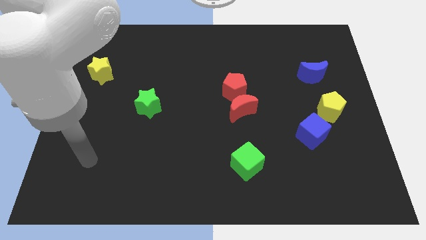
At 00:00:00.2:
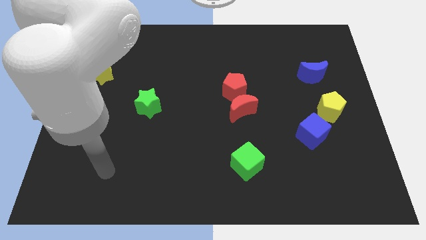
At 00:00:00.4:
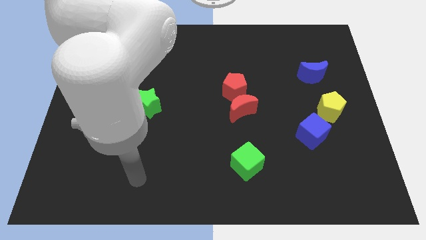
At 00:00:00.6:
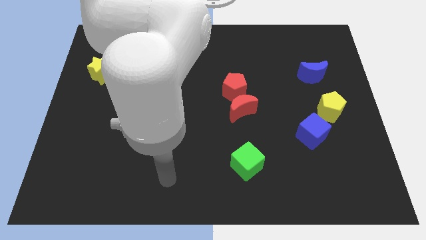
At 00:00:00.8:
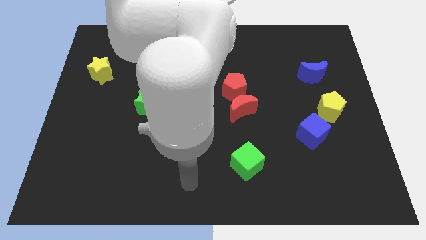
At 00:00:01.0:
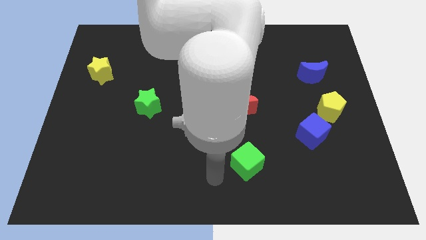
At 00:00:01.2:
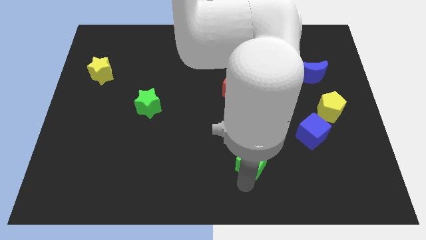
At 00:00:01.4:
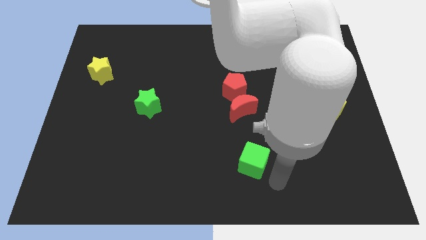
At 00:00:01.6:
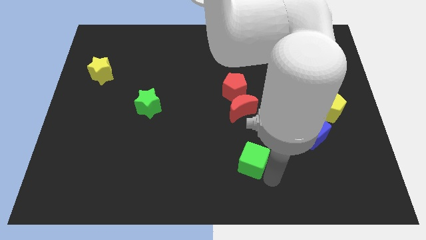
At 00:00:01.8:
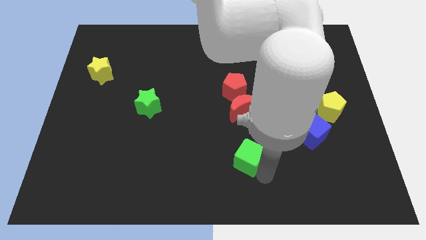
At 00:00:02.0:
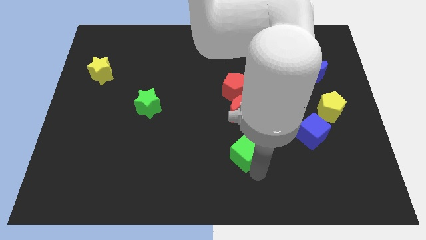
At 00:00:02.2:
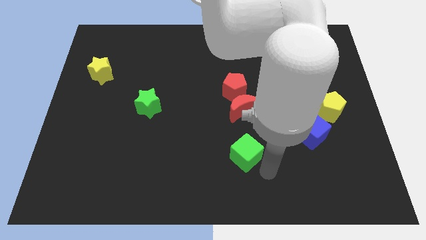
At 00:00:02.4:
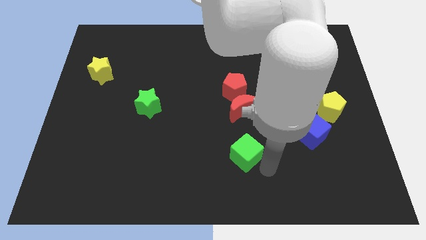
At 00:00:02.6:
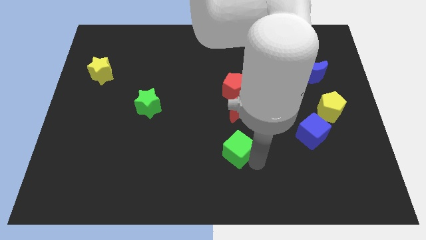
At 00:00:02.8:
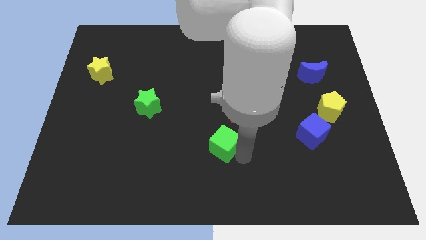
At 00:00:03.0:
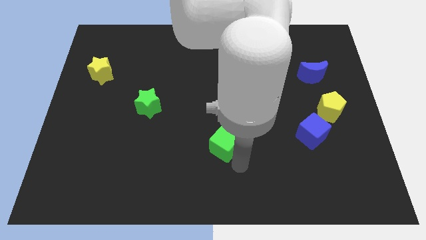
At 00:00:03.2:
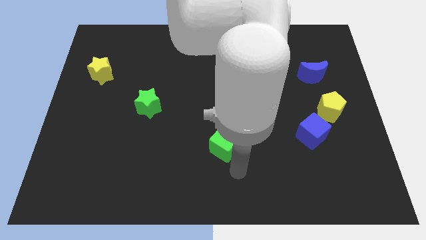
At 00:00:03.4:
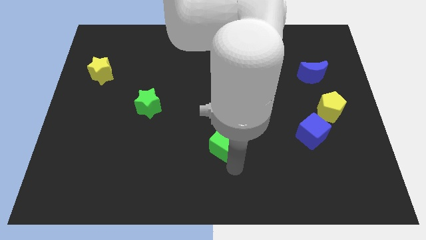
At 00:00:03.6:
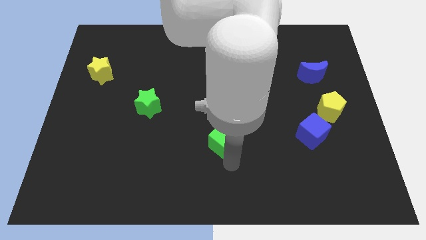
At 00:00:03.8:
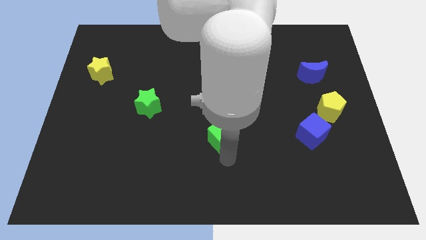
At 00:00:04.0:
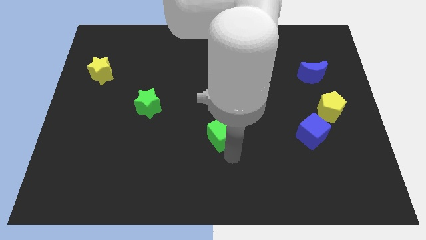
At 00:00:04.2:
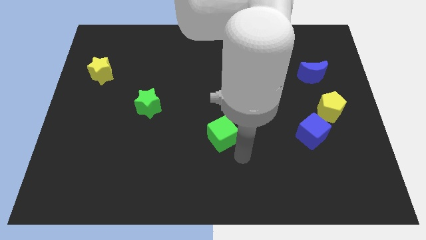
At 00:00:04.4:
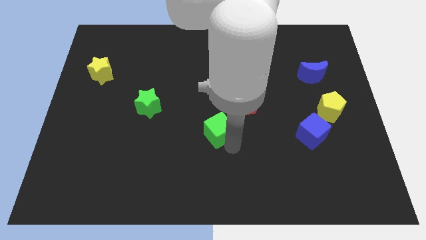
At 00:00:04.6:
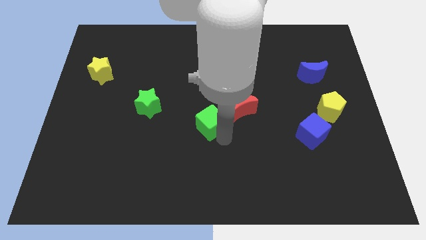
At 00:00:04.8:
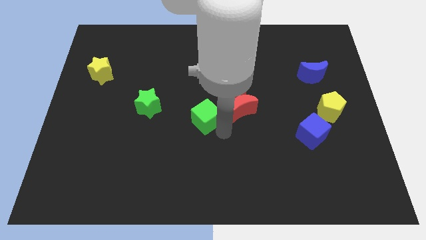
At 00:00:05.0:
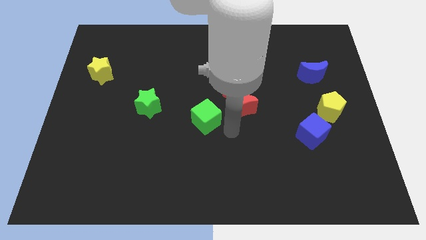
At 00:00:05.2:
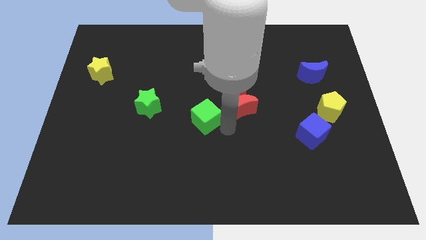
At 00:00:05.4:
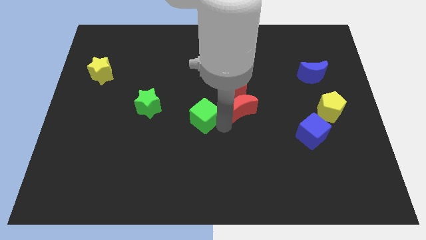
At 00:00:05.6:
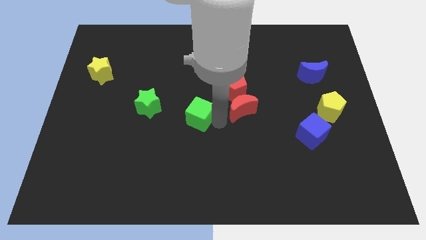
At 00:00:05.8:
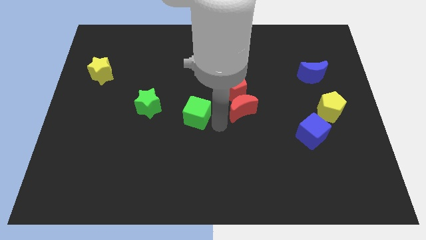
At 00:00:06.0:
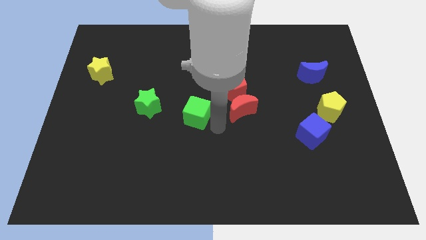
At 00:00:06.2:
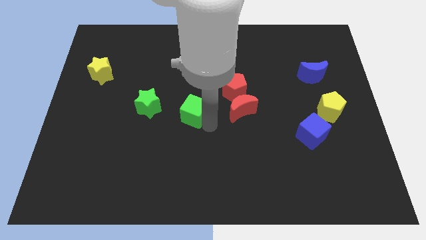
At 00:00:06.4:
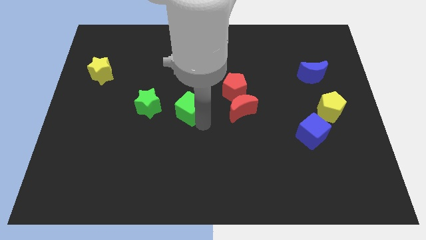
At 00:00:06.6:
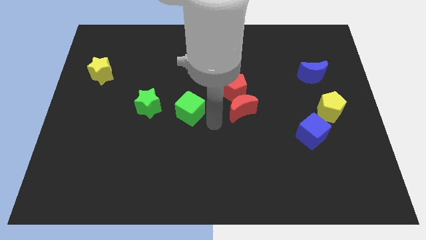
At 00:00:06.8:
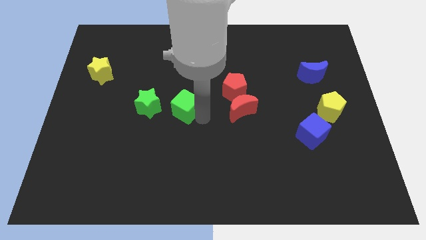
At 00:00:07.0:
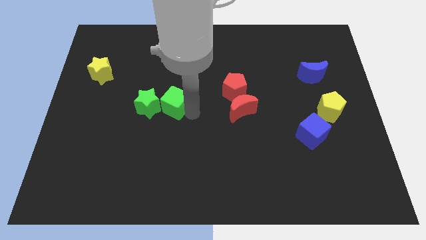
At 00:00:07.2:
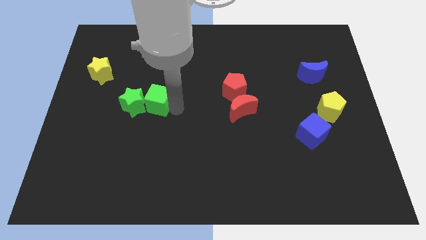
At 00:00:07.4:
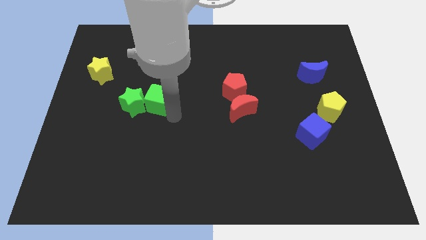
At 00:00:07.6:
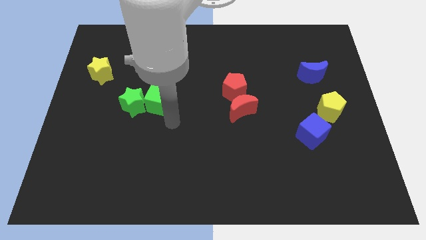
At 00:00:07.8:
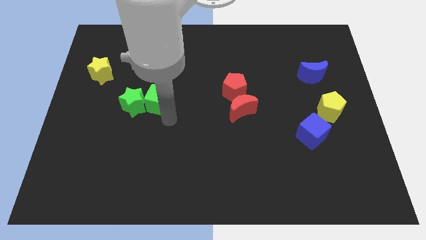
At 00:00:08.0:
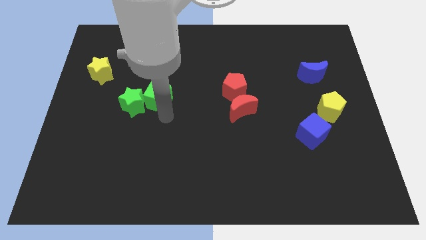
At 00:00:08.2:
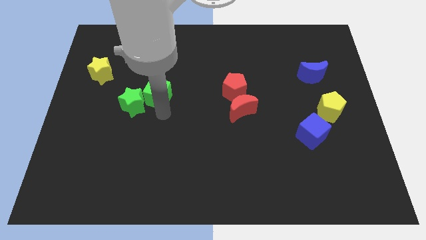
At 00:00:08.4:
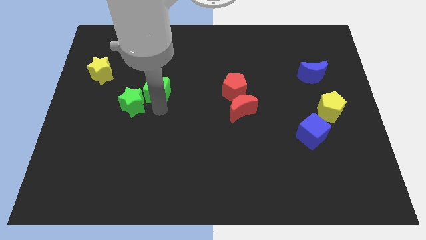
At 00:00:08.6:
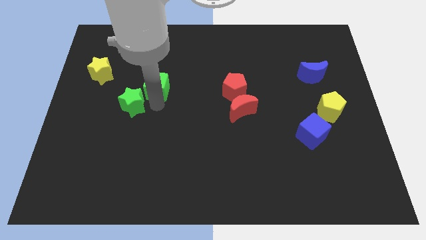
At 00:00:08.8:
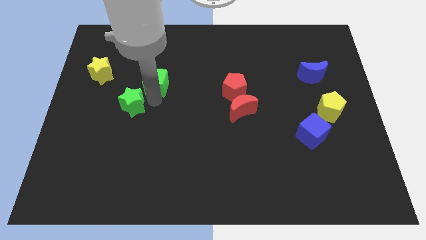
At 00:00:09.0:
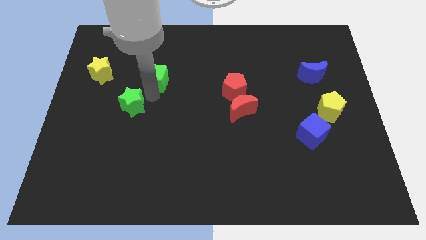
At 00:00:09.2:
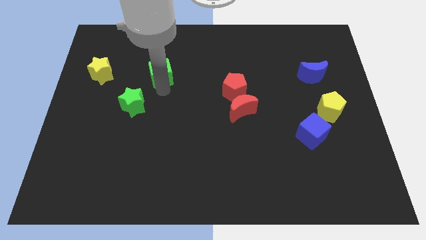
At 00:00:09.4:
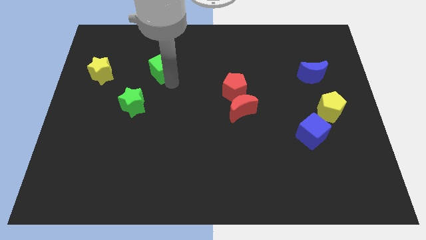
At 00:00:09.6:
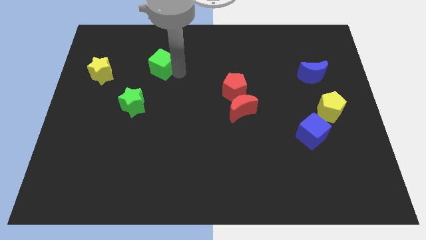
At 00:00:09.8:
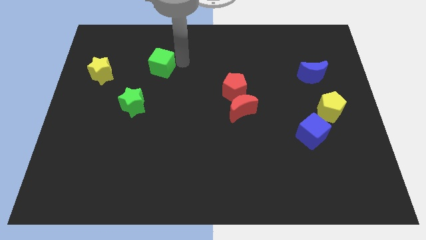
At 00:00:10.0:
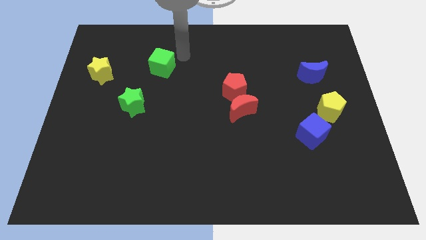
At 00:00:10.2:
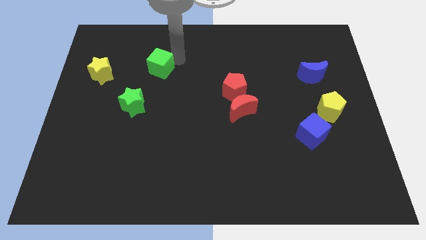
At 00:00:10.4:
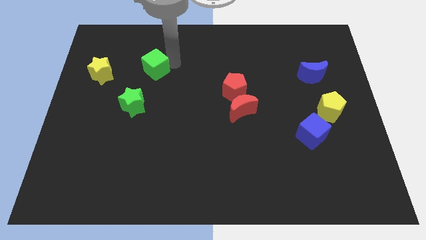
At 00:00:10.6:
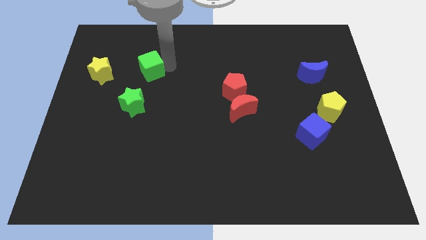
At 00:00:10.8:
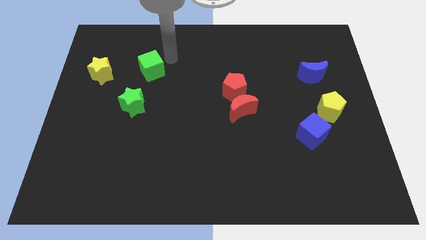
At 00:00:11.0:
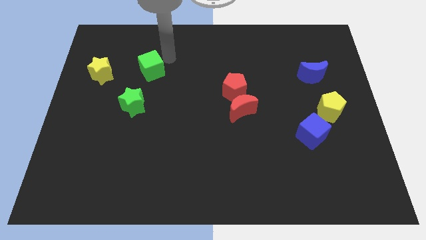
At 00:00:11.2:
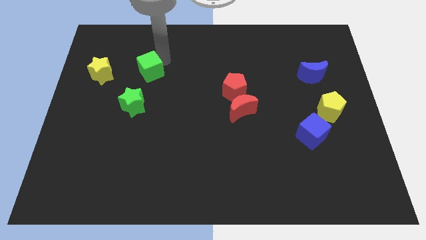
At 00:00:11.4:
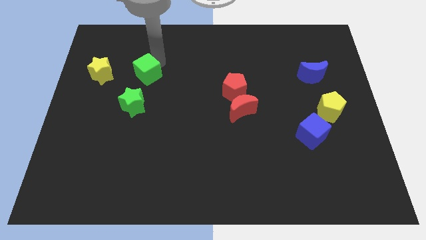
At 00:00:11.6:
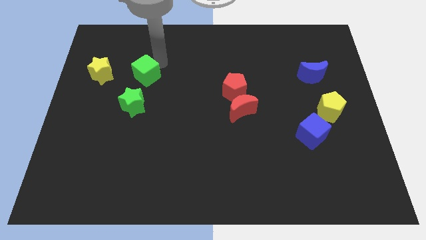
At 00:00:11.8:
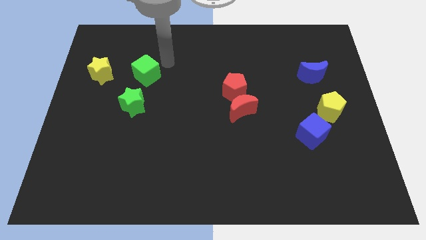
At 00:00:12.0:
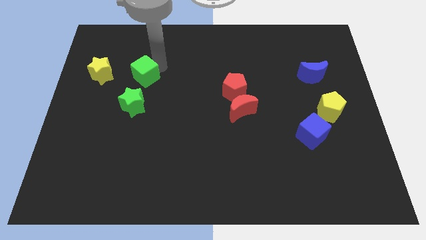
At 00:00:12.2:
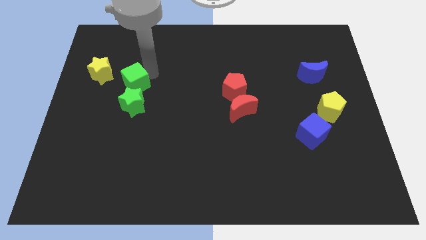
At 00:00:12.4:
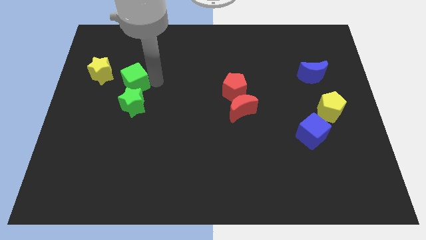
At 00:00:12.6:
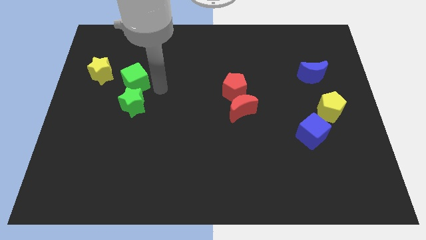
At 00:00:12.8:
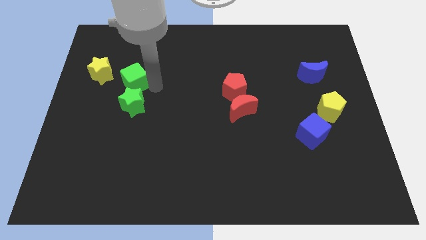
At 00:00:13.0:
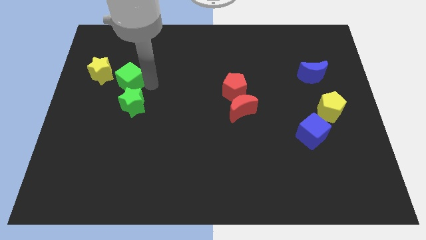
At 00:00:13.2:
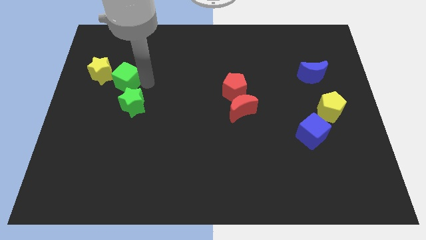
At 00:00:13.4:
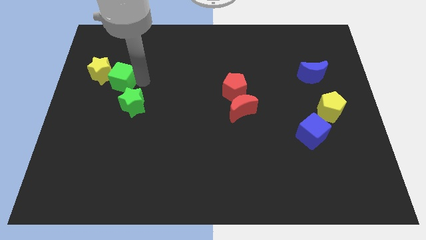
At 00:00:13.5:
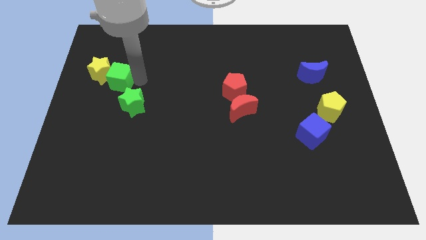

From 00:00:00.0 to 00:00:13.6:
put the green cube next to the yellow star

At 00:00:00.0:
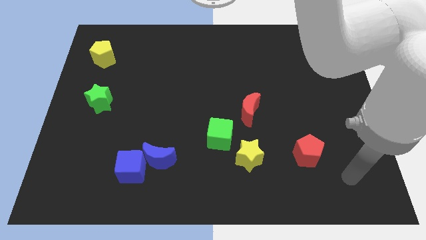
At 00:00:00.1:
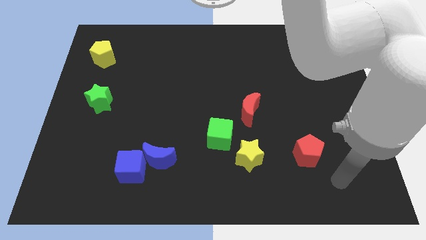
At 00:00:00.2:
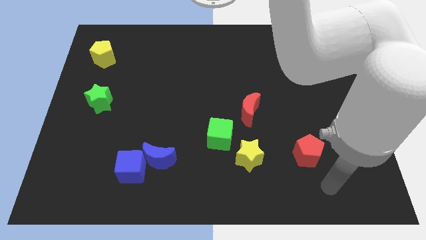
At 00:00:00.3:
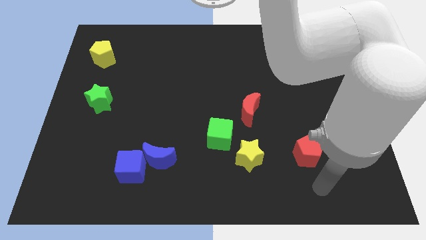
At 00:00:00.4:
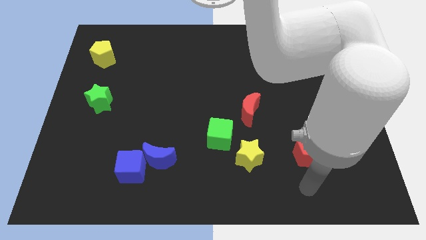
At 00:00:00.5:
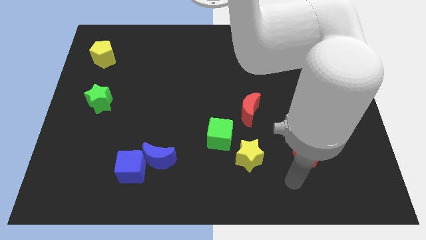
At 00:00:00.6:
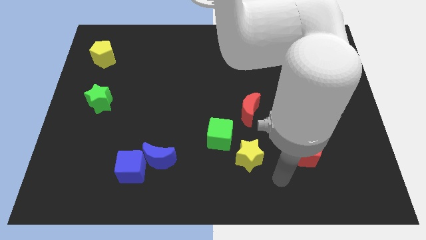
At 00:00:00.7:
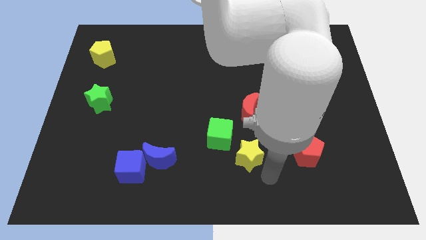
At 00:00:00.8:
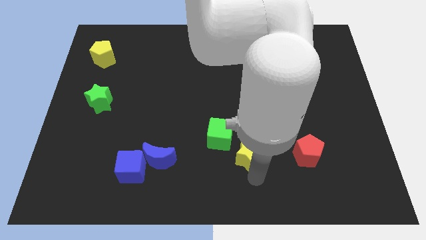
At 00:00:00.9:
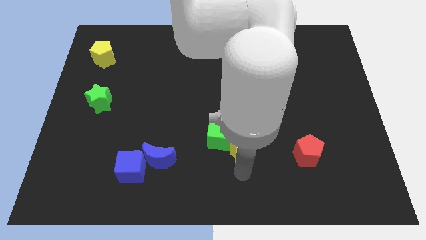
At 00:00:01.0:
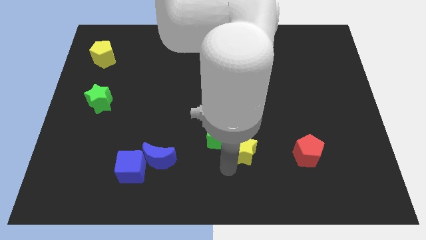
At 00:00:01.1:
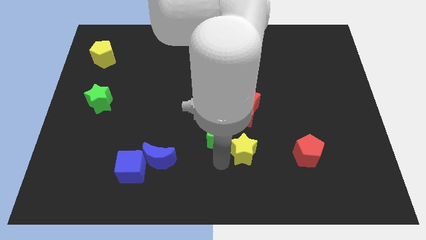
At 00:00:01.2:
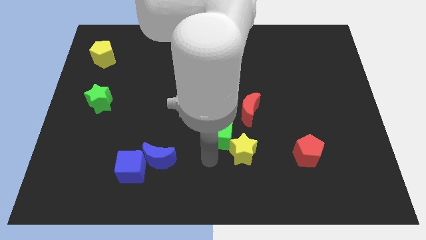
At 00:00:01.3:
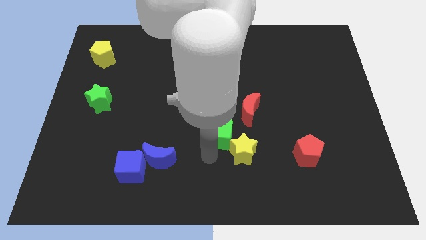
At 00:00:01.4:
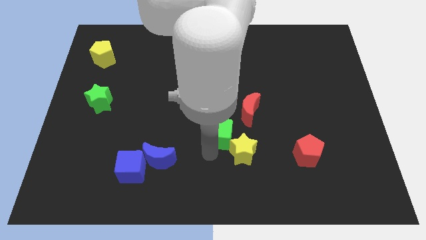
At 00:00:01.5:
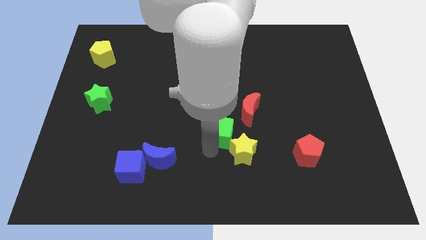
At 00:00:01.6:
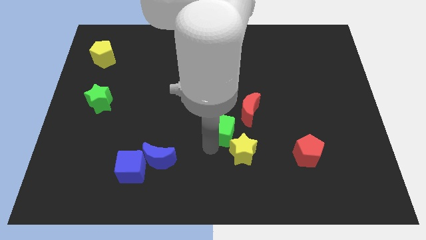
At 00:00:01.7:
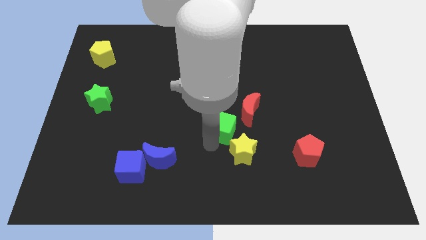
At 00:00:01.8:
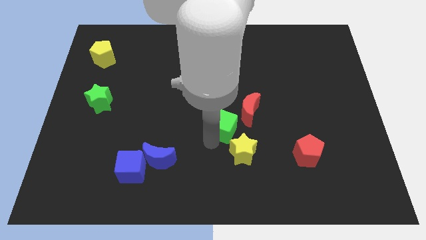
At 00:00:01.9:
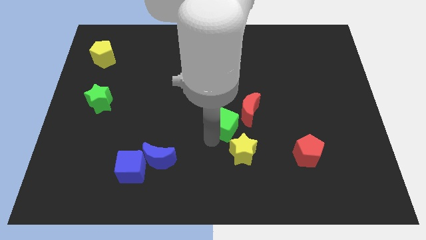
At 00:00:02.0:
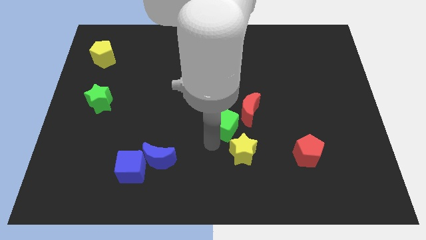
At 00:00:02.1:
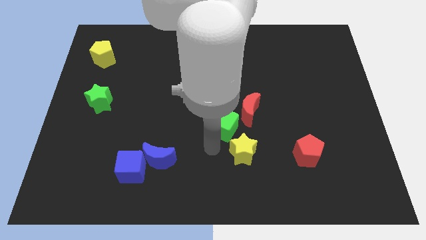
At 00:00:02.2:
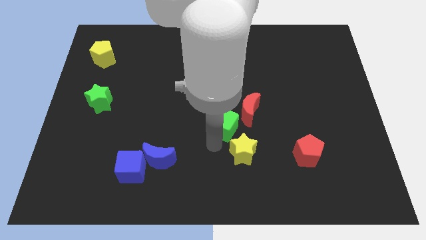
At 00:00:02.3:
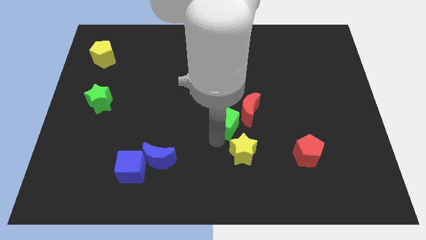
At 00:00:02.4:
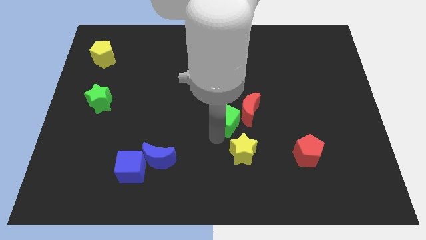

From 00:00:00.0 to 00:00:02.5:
push the green cube close to the red moon
